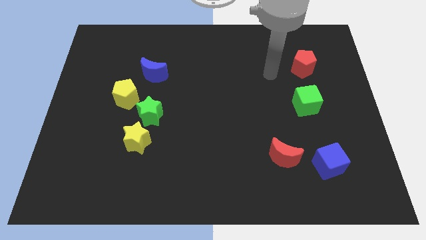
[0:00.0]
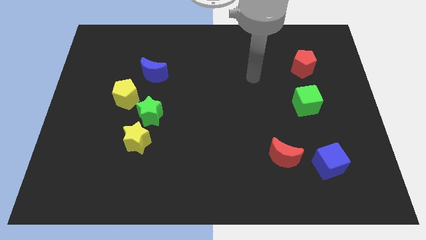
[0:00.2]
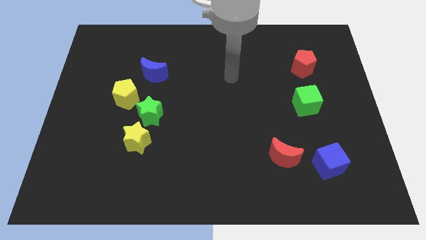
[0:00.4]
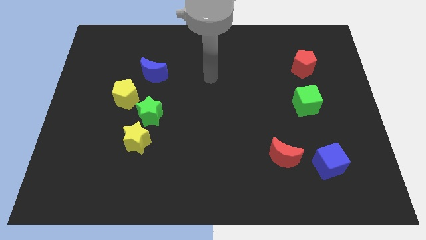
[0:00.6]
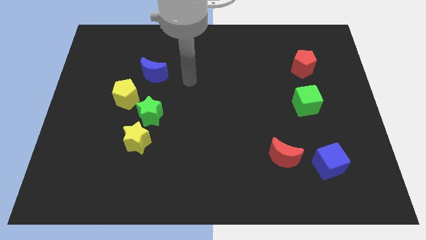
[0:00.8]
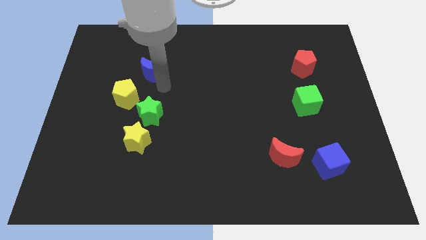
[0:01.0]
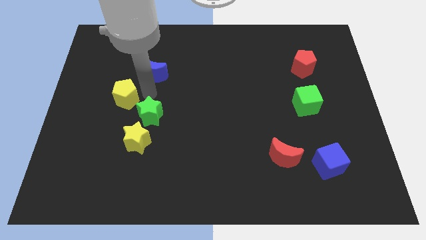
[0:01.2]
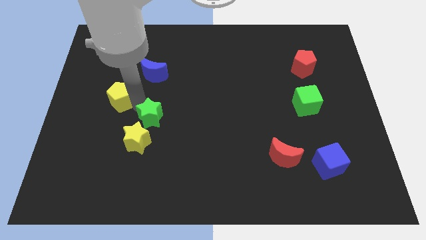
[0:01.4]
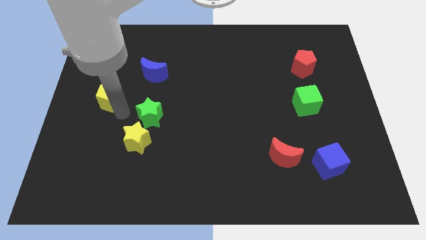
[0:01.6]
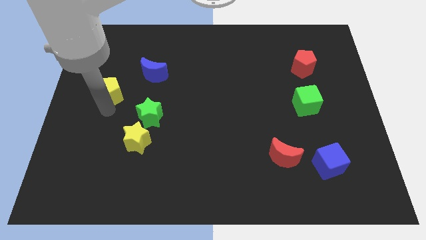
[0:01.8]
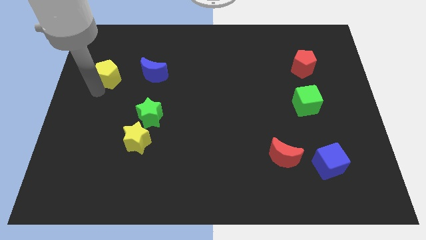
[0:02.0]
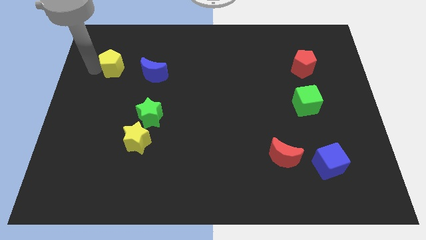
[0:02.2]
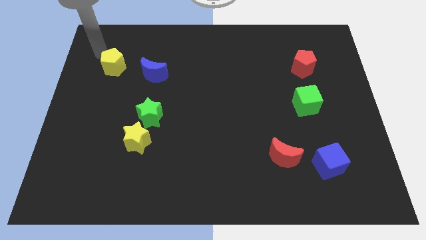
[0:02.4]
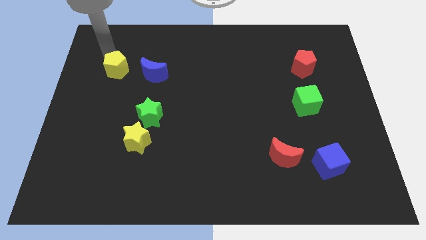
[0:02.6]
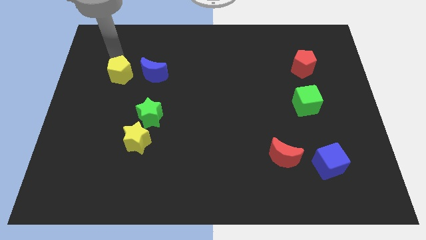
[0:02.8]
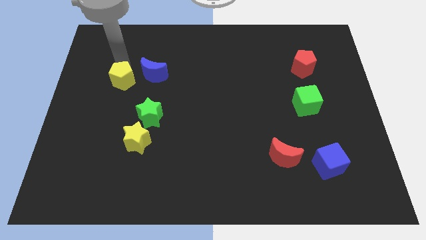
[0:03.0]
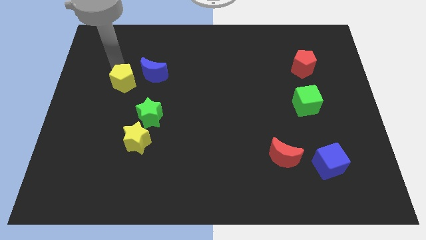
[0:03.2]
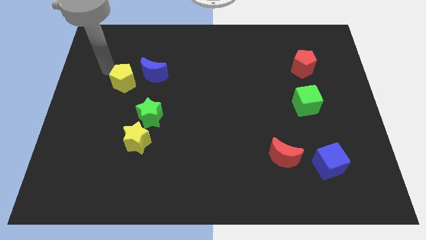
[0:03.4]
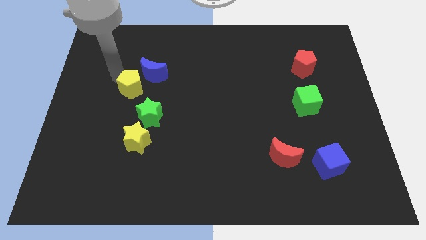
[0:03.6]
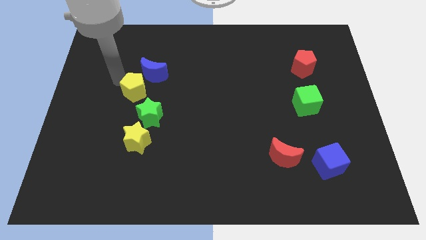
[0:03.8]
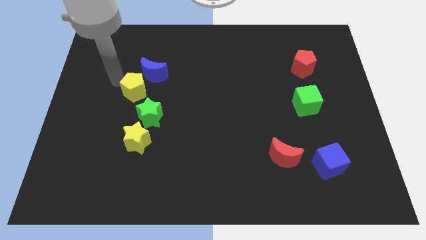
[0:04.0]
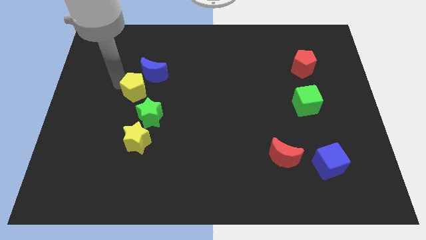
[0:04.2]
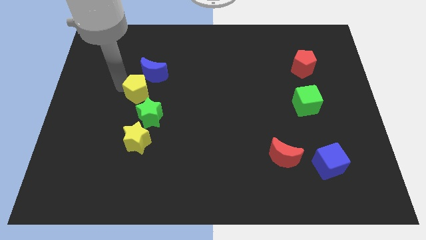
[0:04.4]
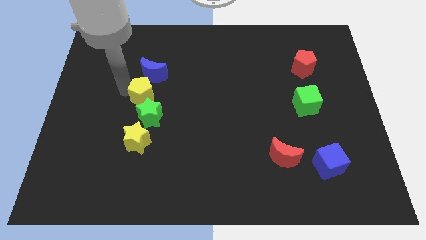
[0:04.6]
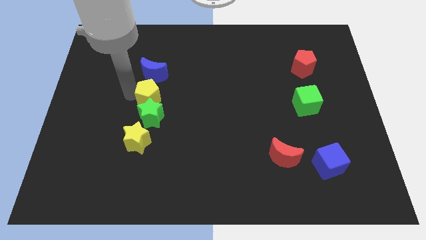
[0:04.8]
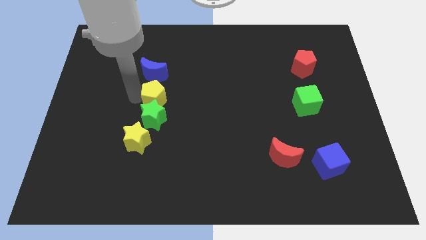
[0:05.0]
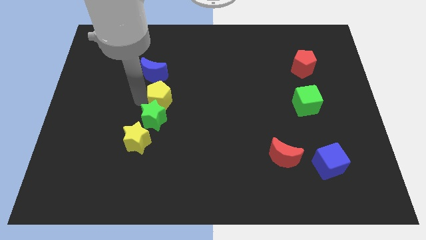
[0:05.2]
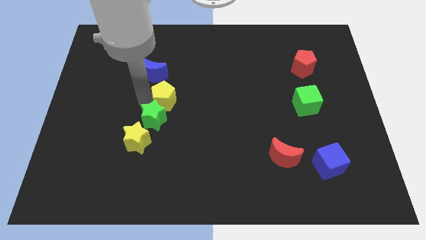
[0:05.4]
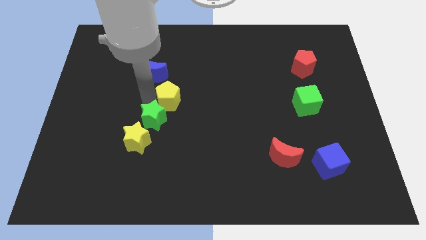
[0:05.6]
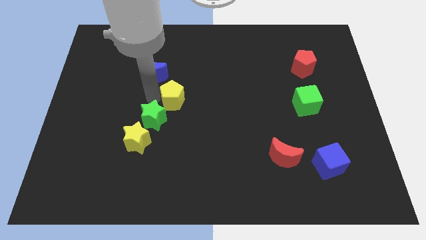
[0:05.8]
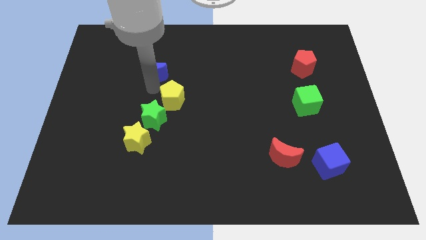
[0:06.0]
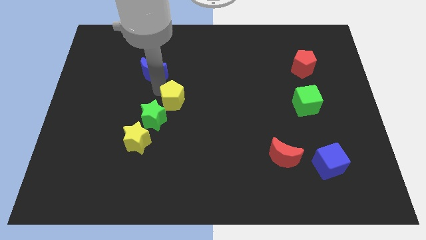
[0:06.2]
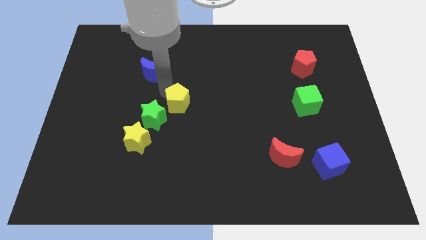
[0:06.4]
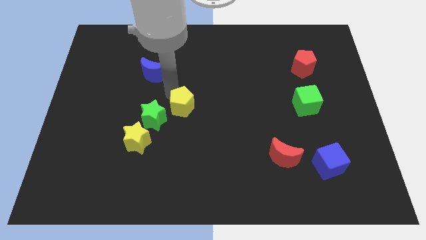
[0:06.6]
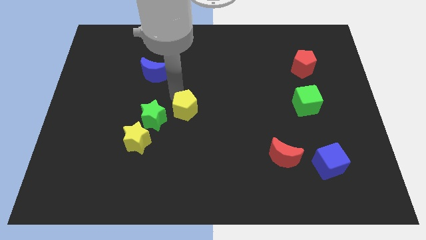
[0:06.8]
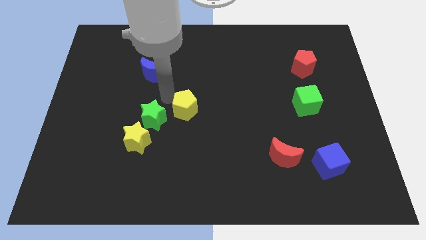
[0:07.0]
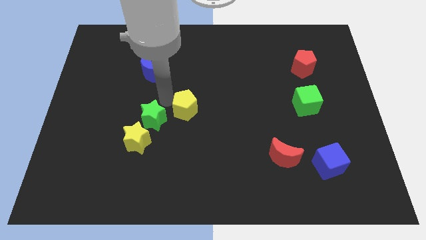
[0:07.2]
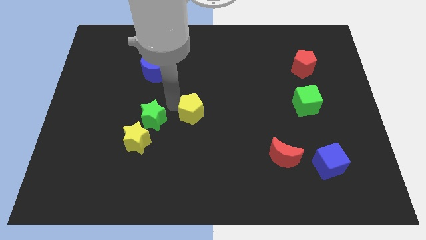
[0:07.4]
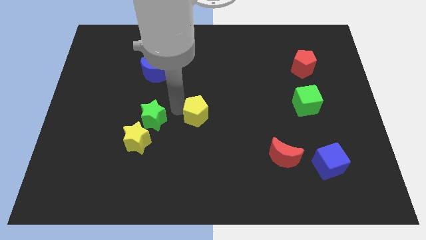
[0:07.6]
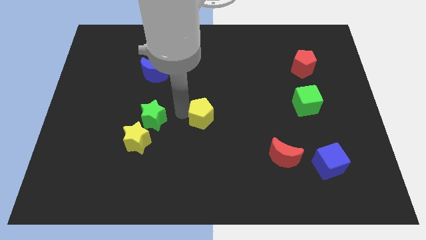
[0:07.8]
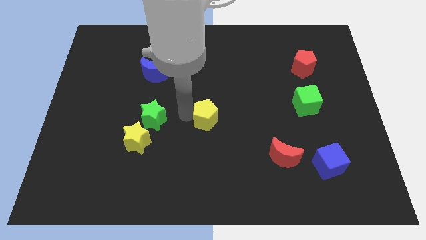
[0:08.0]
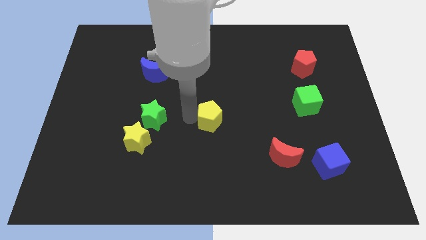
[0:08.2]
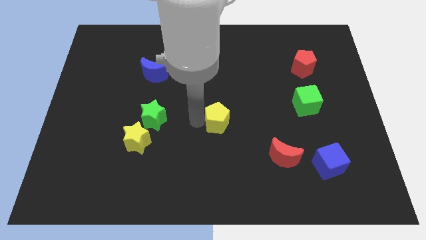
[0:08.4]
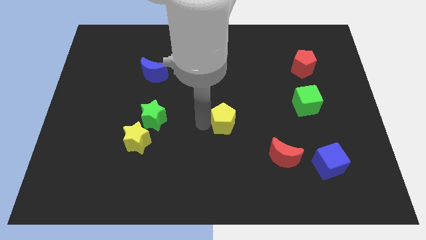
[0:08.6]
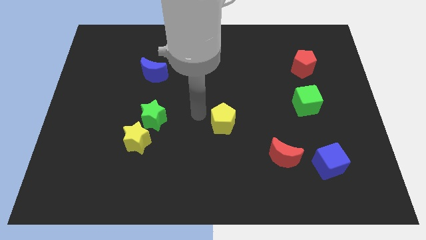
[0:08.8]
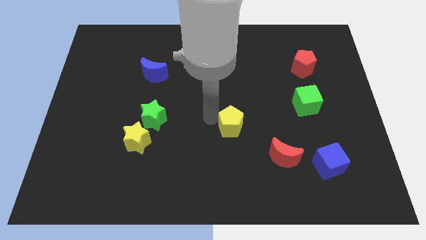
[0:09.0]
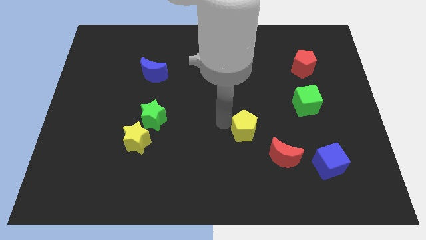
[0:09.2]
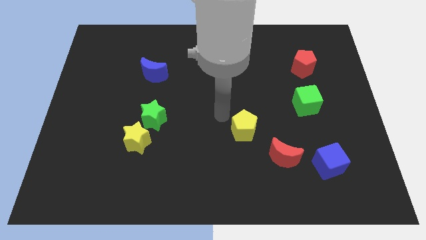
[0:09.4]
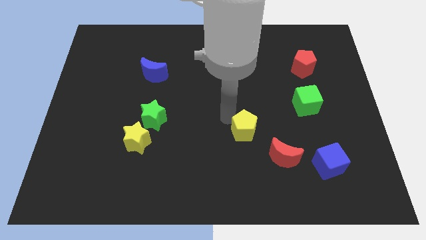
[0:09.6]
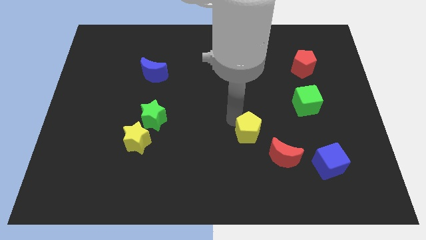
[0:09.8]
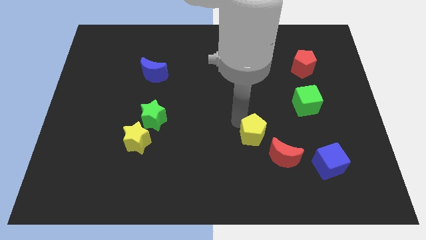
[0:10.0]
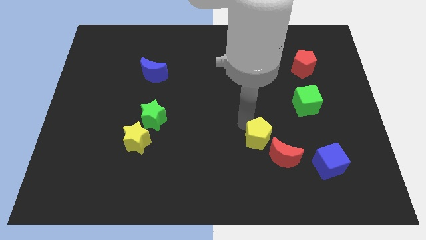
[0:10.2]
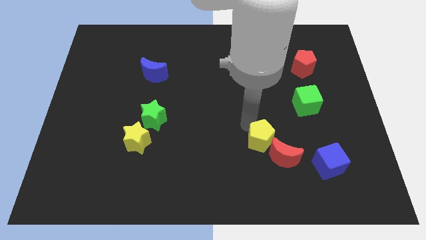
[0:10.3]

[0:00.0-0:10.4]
push the yellow pentagon to the red moon

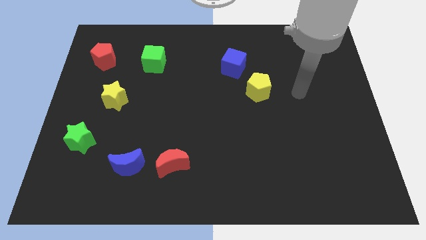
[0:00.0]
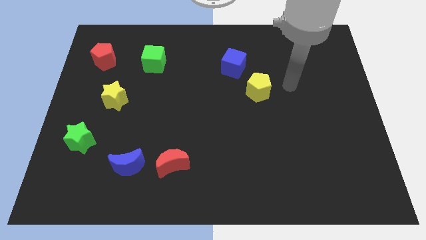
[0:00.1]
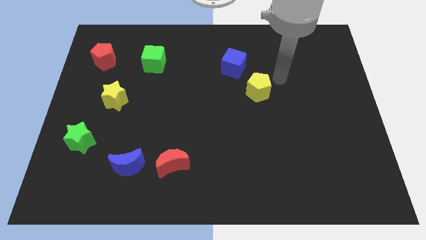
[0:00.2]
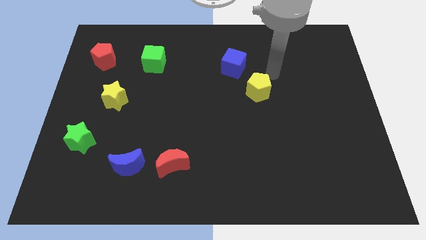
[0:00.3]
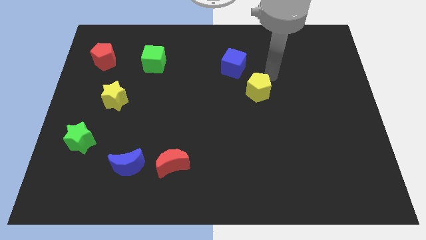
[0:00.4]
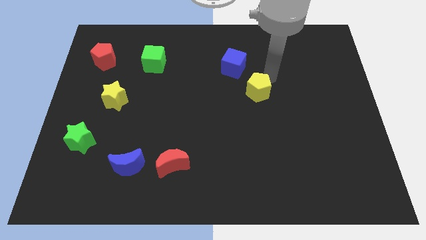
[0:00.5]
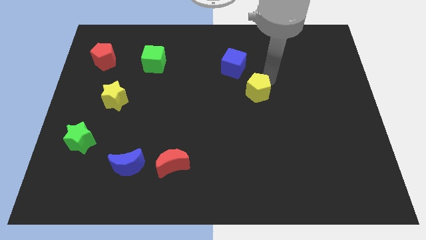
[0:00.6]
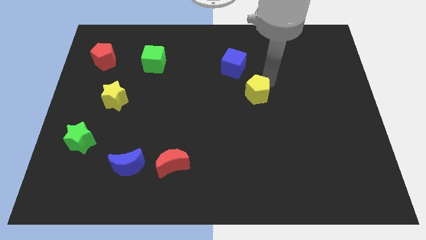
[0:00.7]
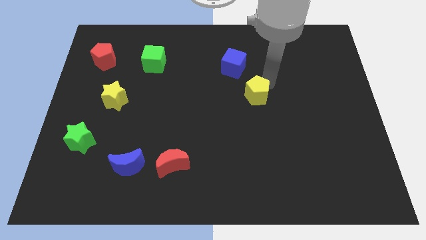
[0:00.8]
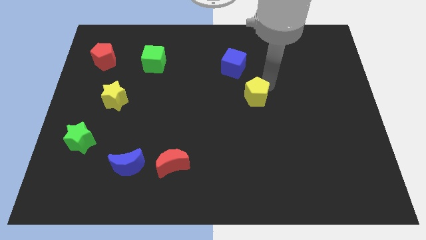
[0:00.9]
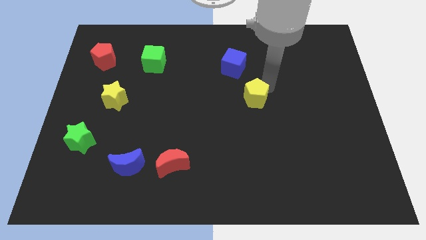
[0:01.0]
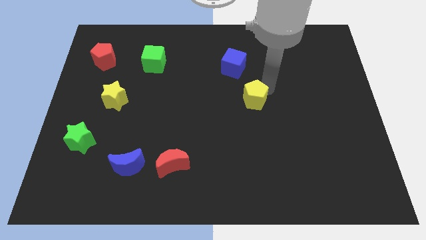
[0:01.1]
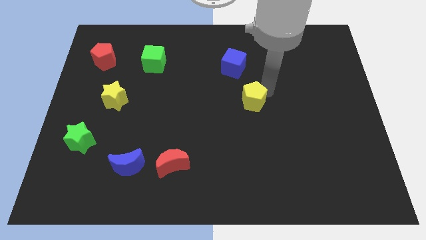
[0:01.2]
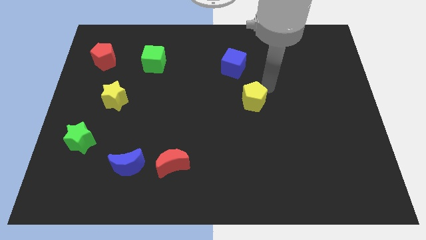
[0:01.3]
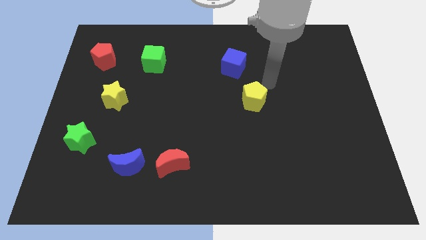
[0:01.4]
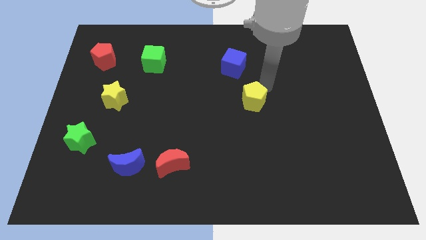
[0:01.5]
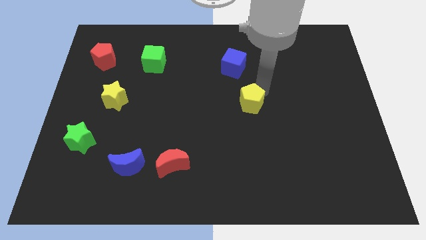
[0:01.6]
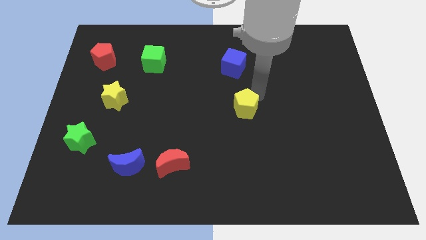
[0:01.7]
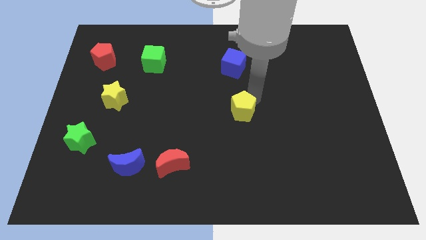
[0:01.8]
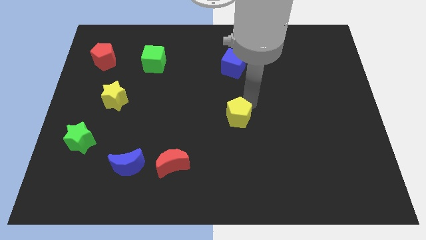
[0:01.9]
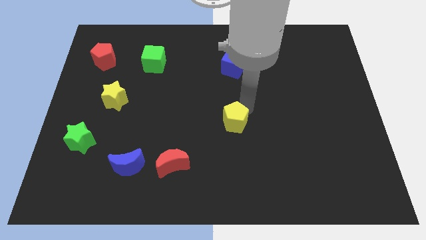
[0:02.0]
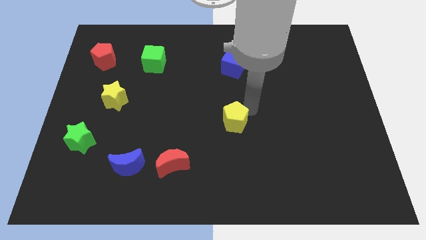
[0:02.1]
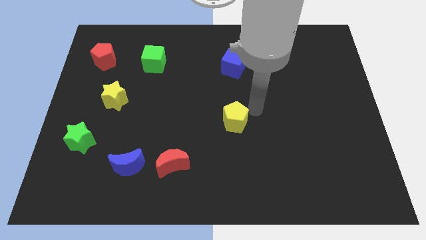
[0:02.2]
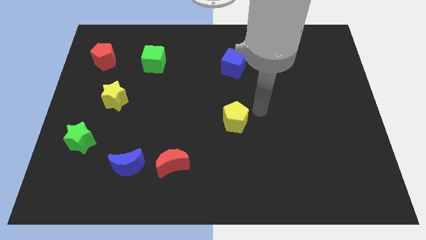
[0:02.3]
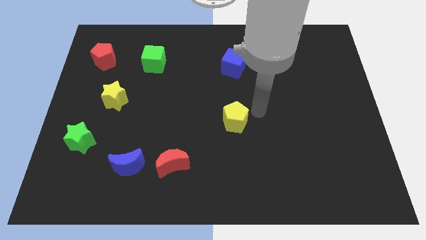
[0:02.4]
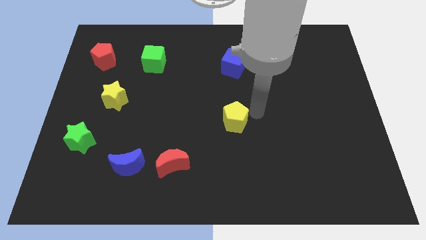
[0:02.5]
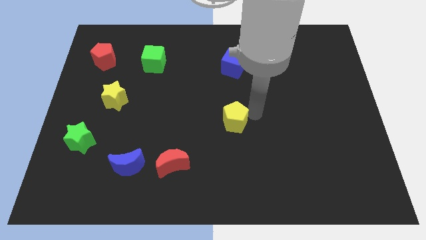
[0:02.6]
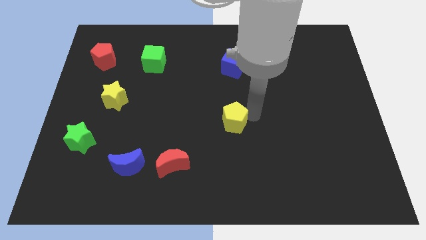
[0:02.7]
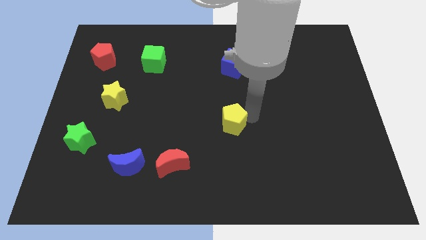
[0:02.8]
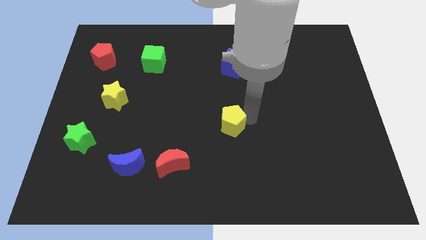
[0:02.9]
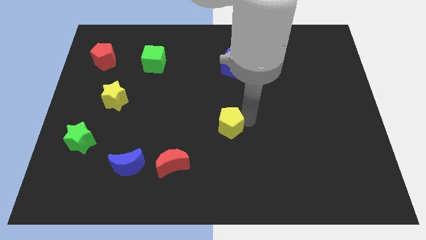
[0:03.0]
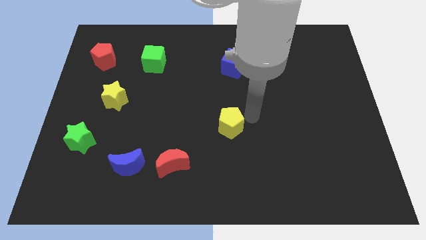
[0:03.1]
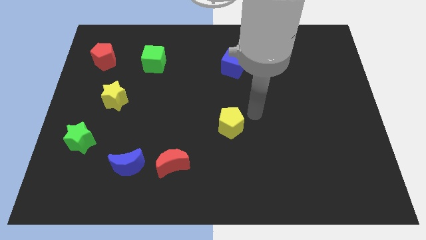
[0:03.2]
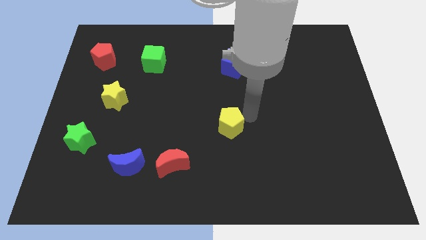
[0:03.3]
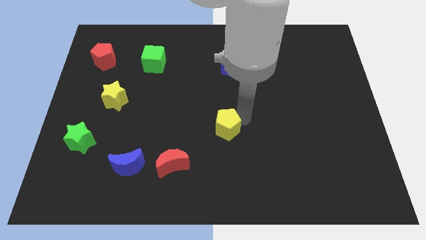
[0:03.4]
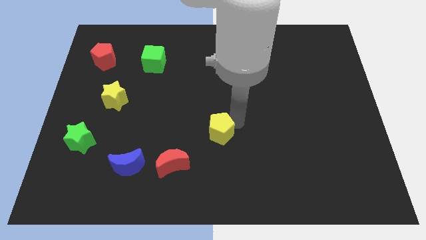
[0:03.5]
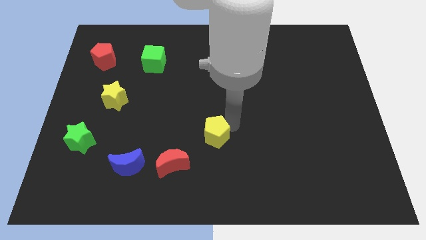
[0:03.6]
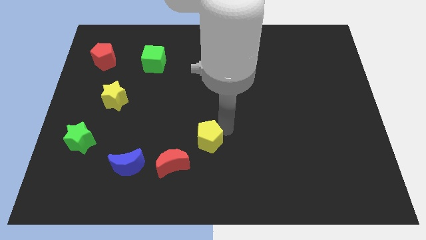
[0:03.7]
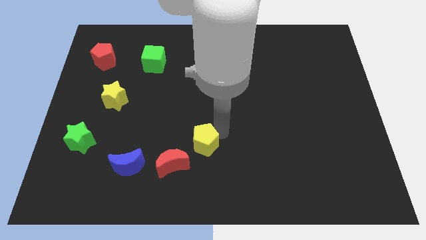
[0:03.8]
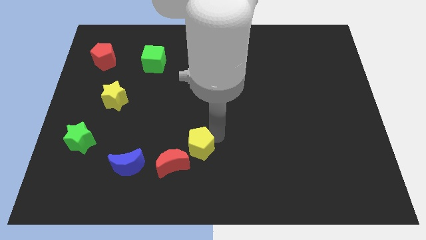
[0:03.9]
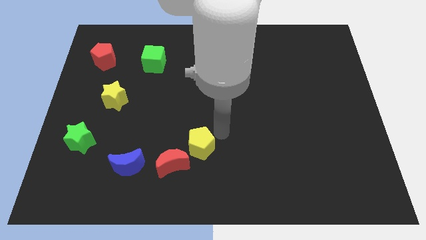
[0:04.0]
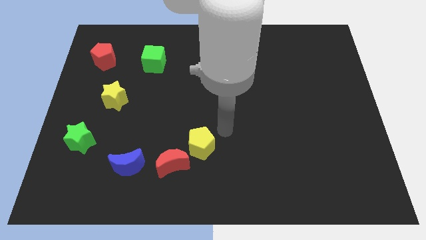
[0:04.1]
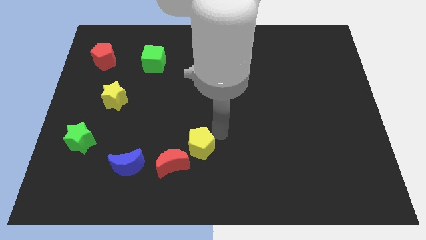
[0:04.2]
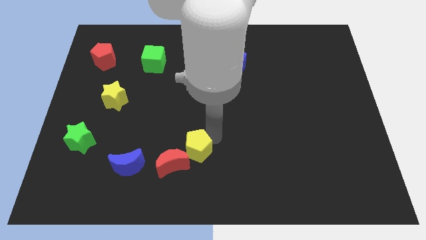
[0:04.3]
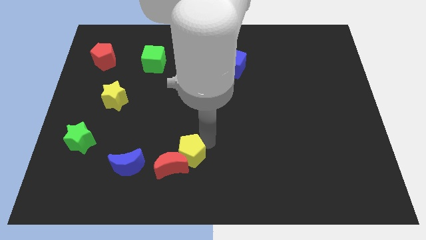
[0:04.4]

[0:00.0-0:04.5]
put the yellow pentagon to the red moon
